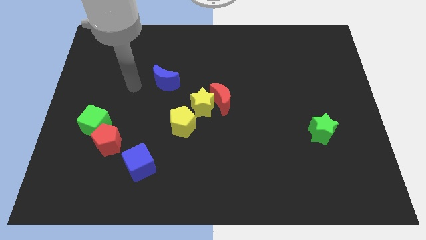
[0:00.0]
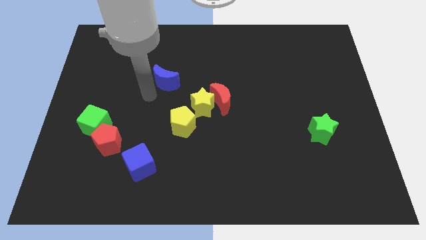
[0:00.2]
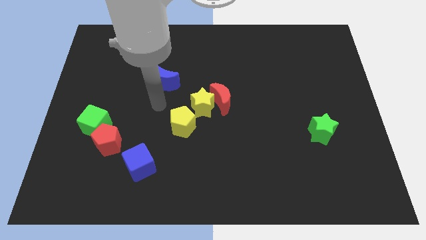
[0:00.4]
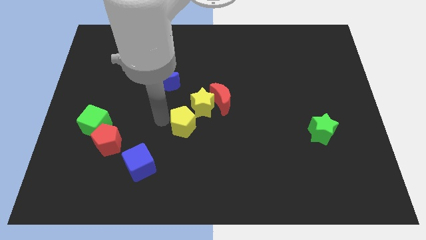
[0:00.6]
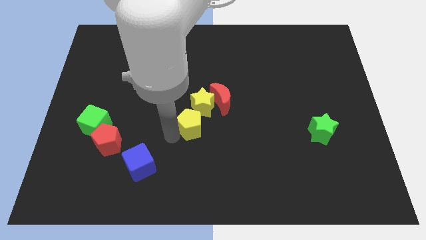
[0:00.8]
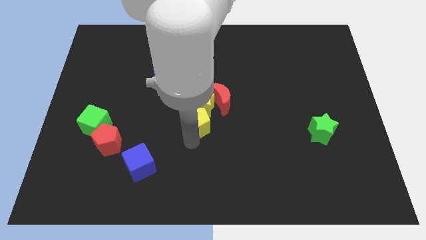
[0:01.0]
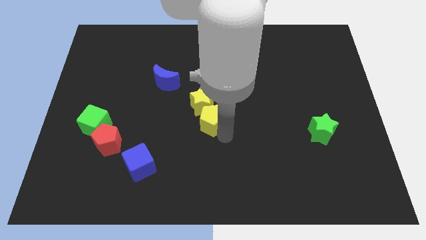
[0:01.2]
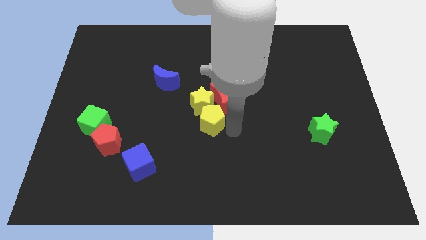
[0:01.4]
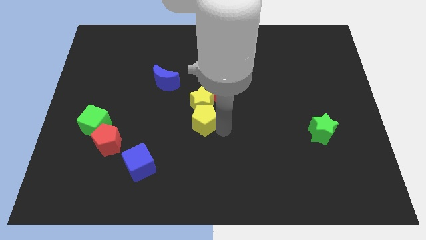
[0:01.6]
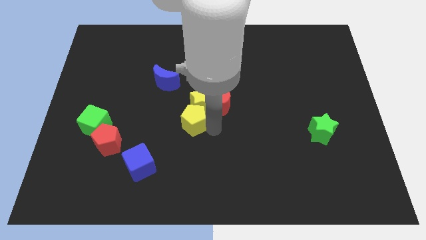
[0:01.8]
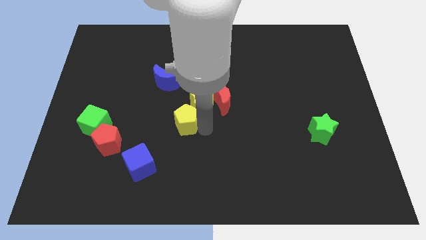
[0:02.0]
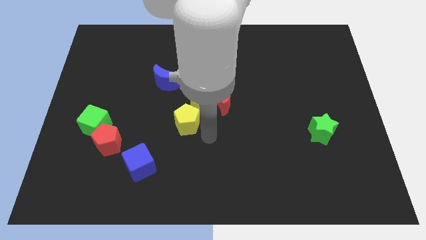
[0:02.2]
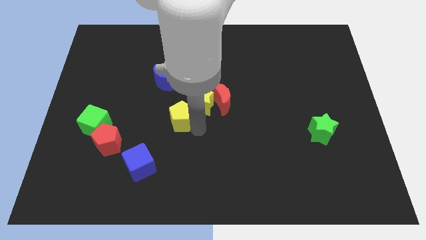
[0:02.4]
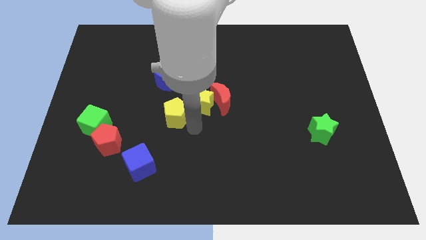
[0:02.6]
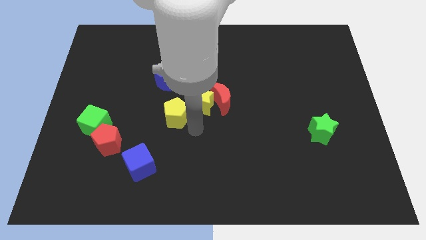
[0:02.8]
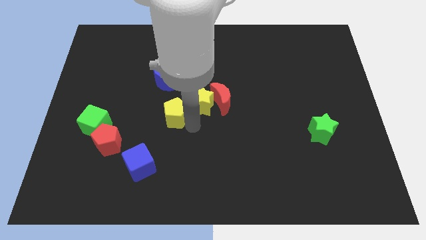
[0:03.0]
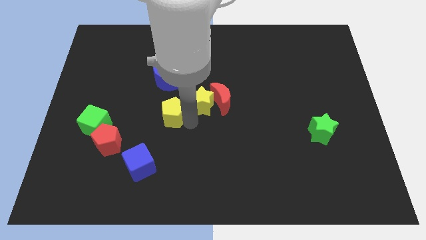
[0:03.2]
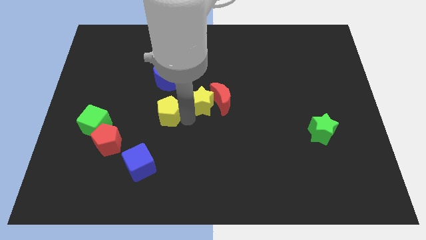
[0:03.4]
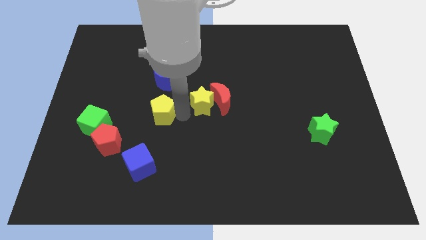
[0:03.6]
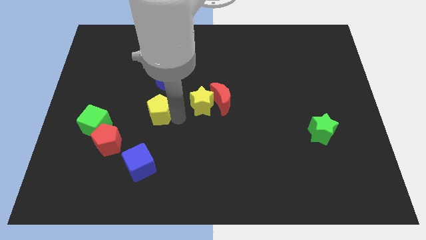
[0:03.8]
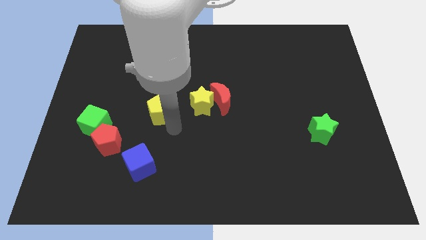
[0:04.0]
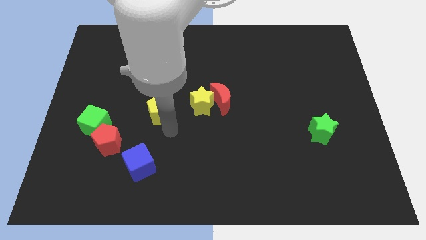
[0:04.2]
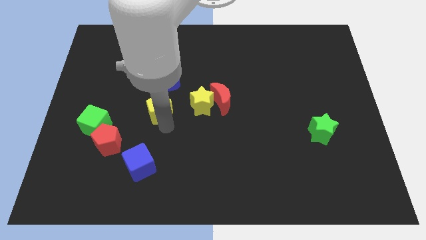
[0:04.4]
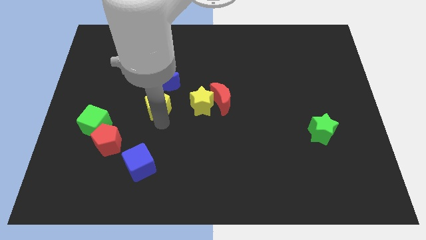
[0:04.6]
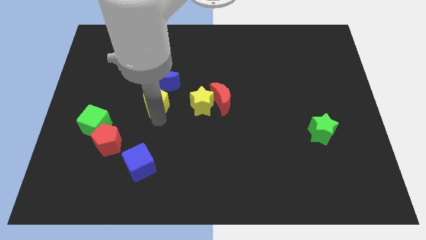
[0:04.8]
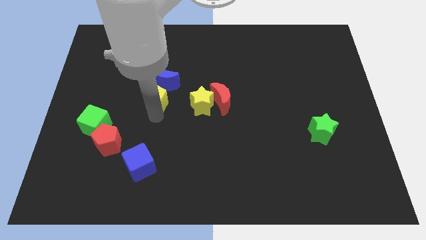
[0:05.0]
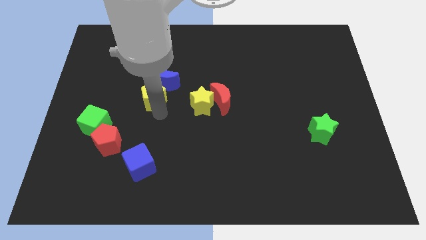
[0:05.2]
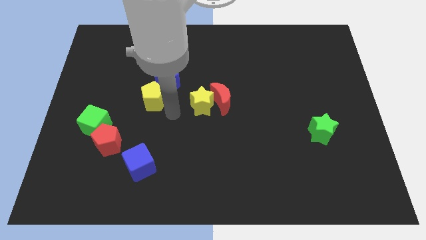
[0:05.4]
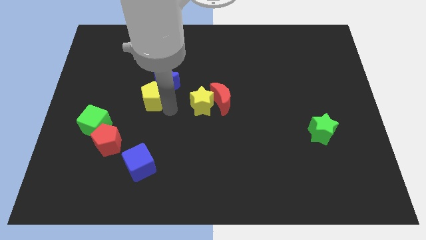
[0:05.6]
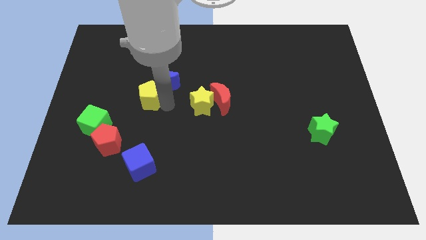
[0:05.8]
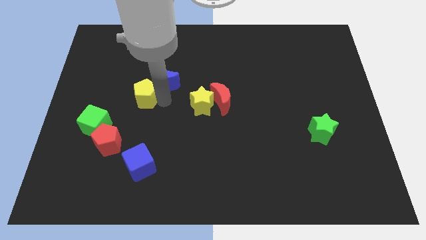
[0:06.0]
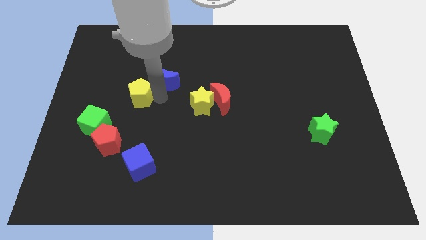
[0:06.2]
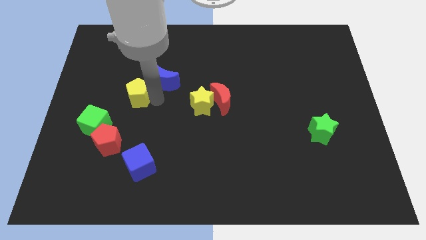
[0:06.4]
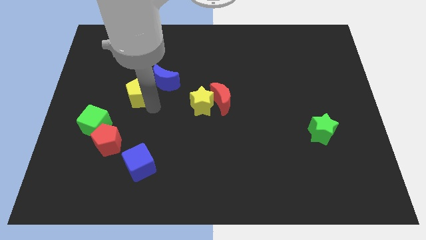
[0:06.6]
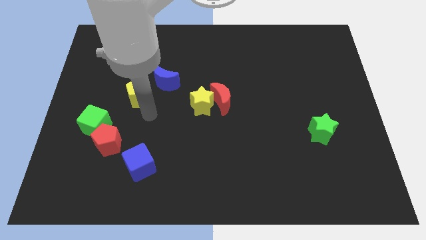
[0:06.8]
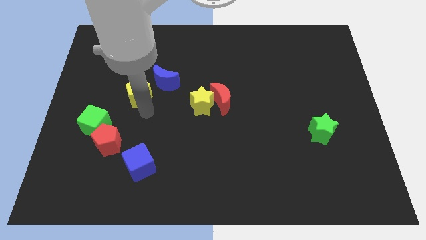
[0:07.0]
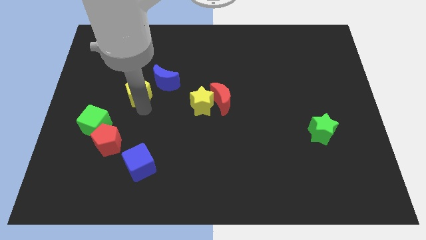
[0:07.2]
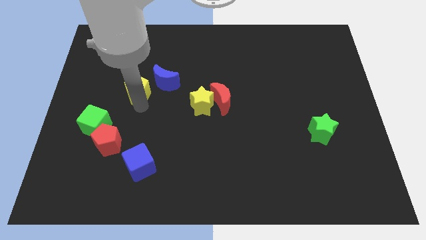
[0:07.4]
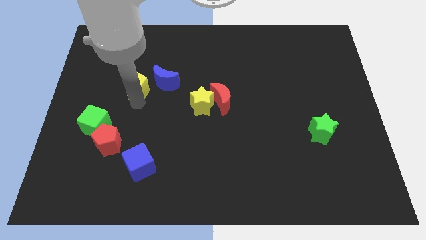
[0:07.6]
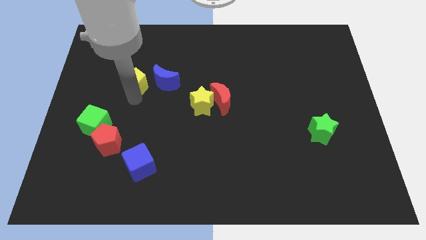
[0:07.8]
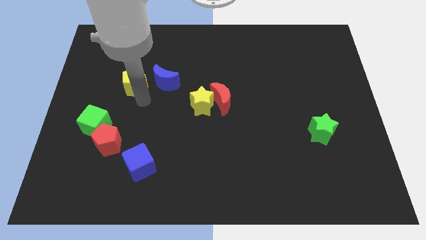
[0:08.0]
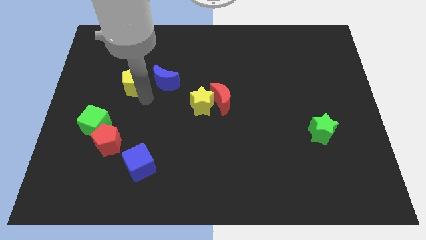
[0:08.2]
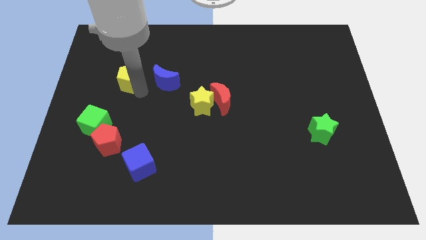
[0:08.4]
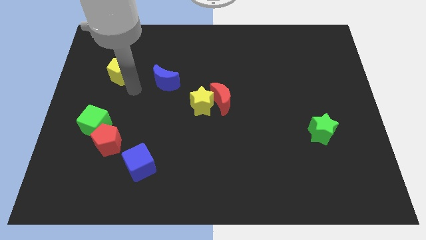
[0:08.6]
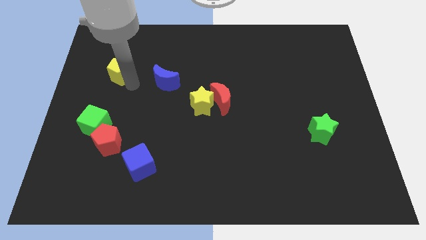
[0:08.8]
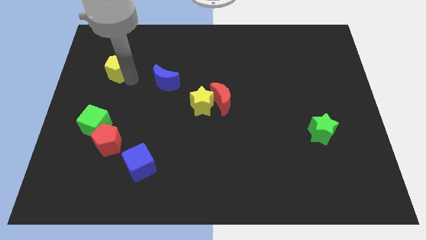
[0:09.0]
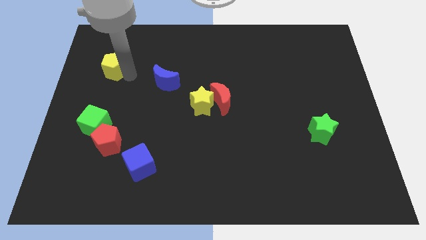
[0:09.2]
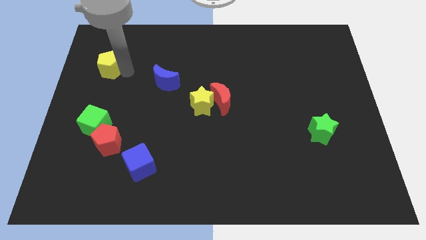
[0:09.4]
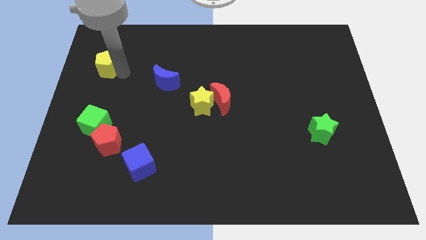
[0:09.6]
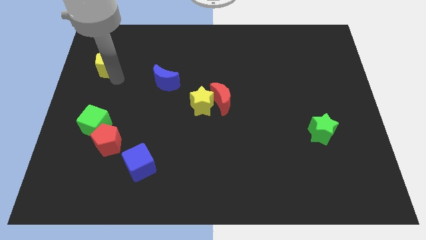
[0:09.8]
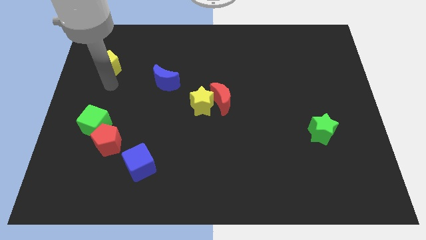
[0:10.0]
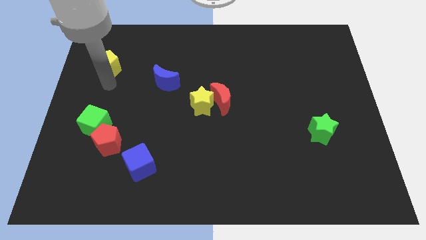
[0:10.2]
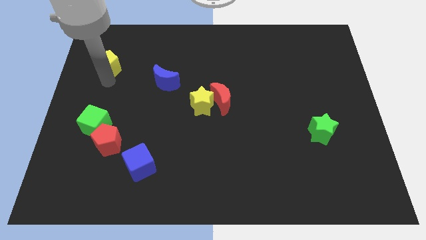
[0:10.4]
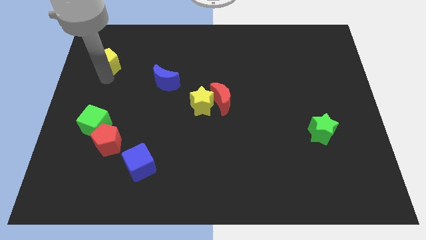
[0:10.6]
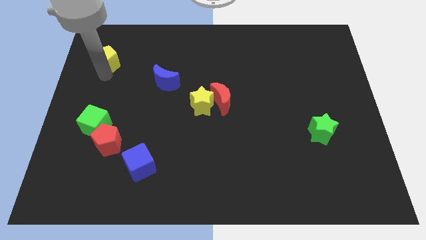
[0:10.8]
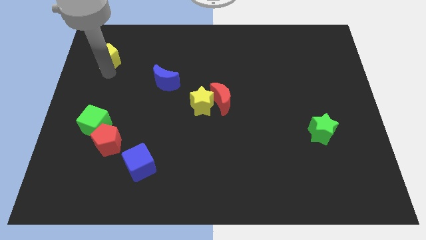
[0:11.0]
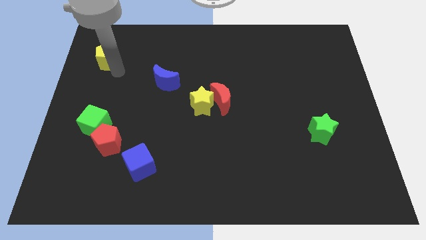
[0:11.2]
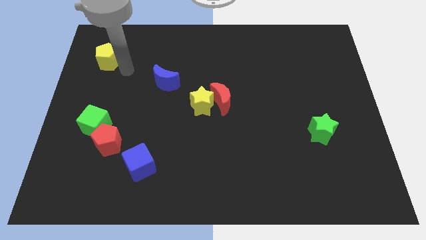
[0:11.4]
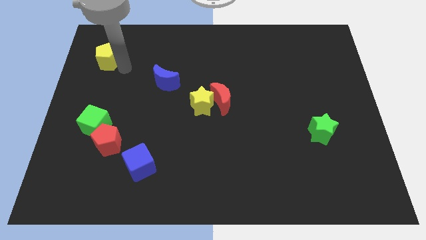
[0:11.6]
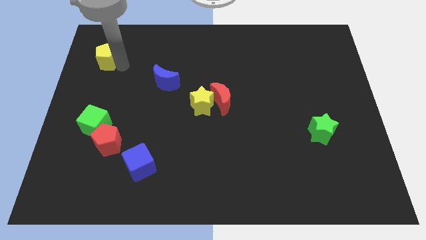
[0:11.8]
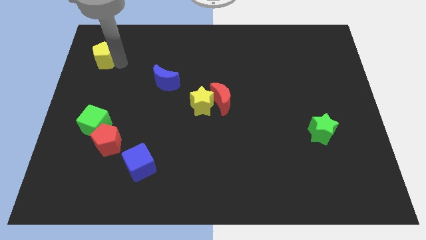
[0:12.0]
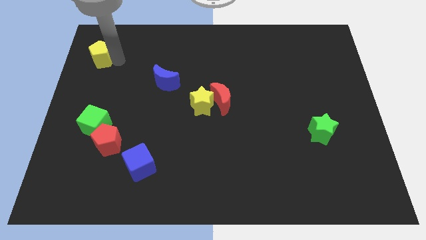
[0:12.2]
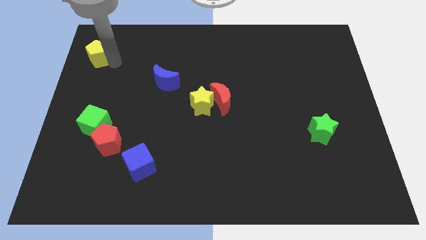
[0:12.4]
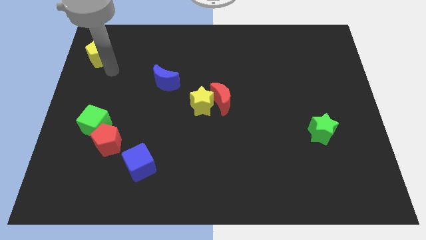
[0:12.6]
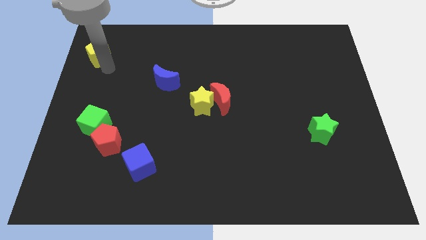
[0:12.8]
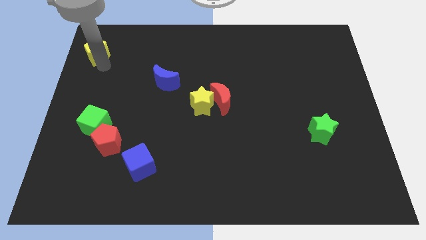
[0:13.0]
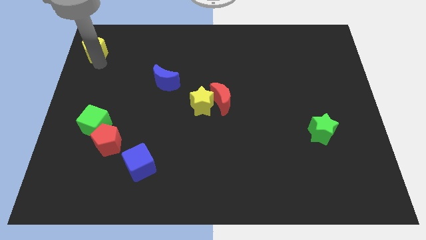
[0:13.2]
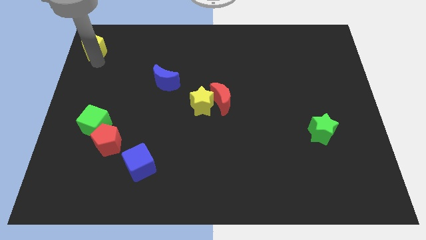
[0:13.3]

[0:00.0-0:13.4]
put the yellow pentagon to the upper left corner

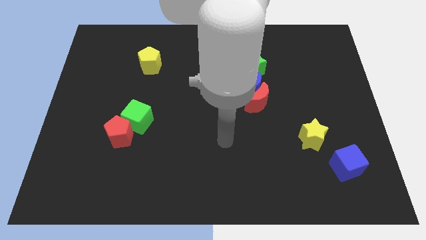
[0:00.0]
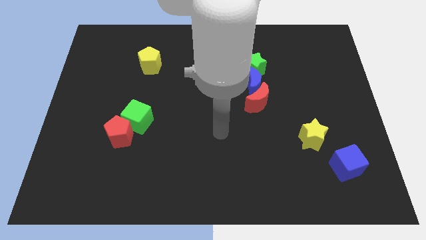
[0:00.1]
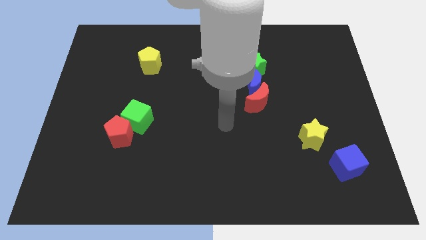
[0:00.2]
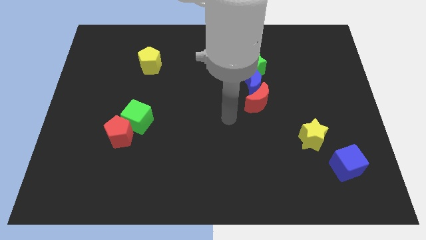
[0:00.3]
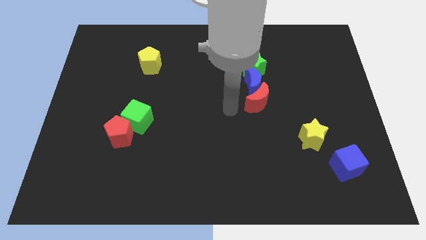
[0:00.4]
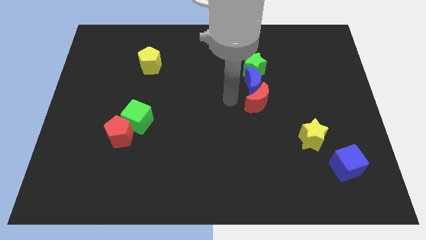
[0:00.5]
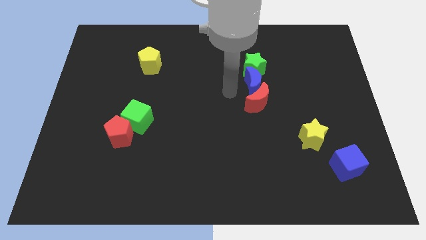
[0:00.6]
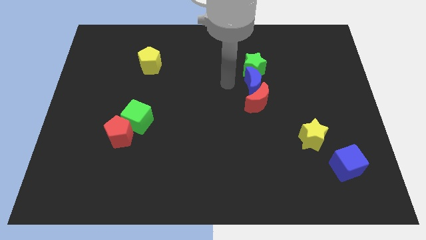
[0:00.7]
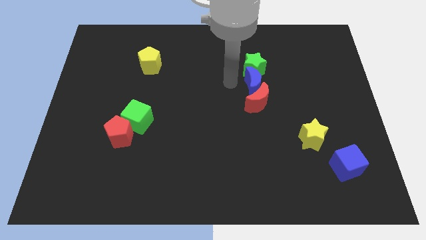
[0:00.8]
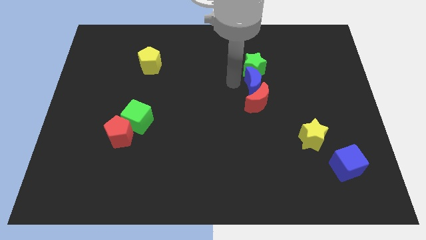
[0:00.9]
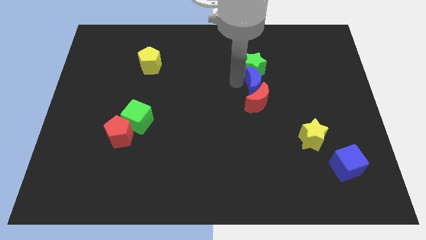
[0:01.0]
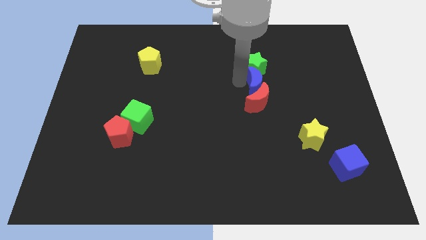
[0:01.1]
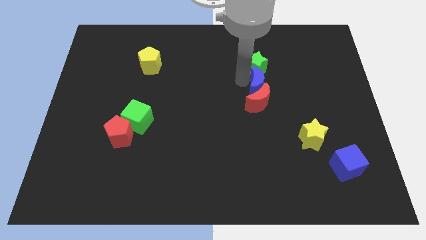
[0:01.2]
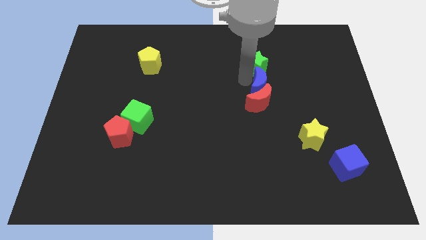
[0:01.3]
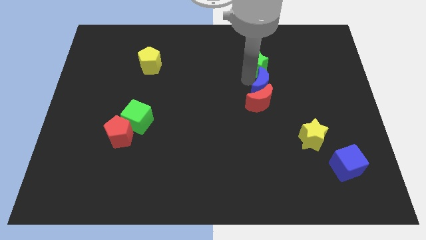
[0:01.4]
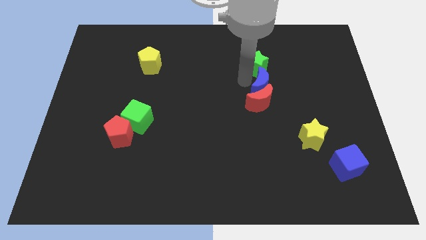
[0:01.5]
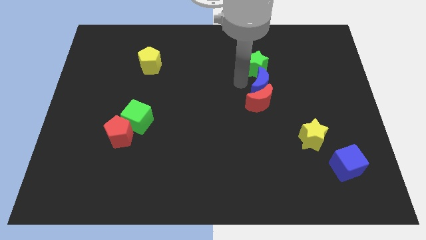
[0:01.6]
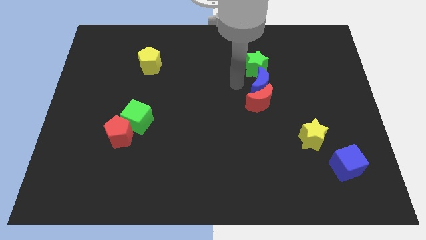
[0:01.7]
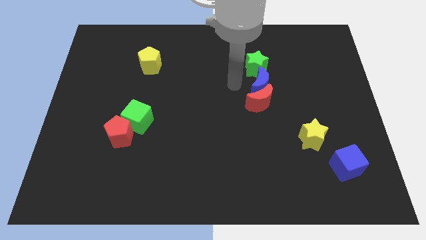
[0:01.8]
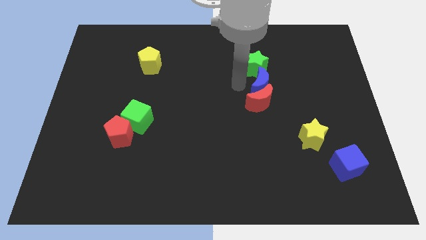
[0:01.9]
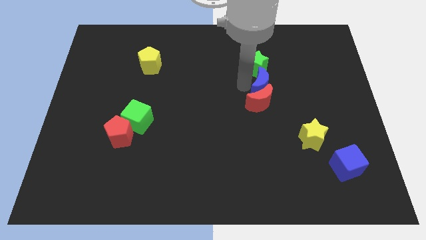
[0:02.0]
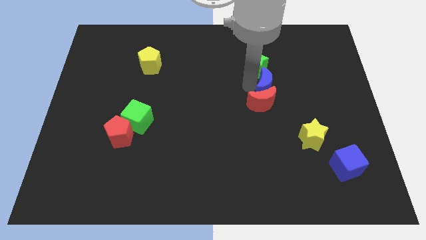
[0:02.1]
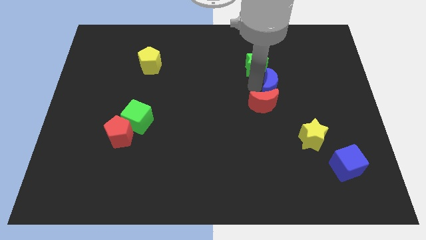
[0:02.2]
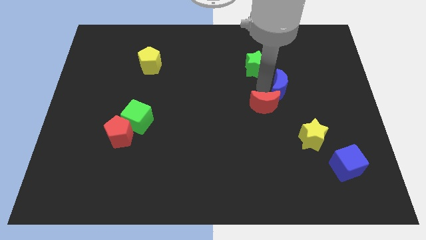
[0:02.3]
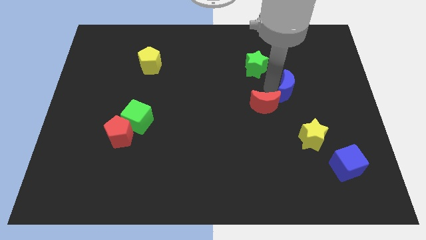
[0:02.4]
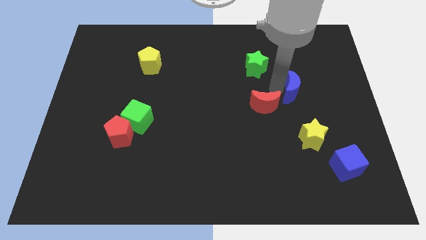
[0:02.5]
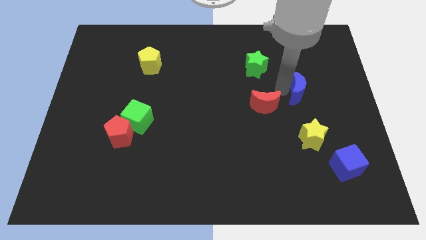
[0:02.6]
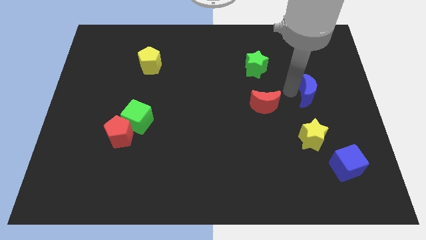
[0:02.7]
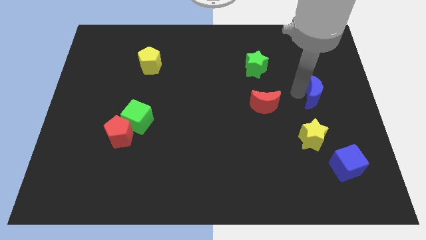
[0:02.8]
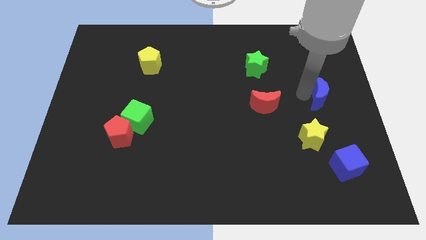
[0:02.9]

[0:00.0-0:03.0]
put the blue moon to the right side of the board
